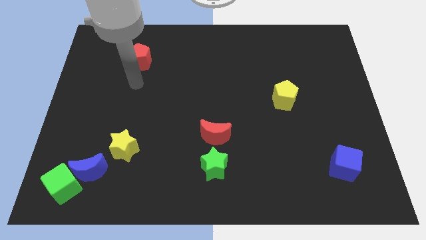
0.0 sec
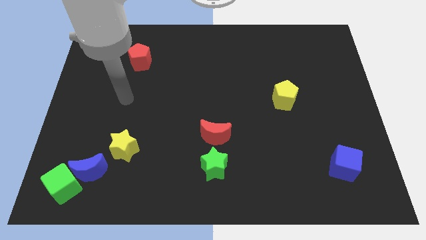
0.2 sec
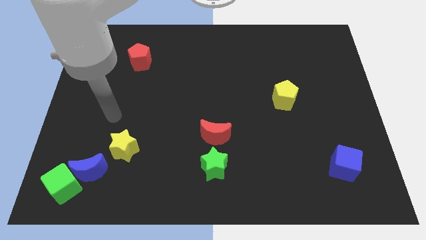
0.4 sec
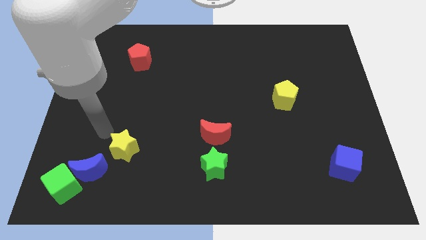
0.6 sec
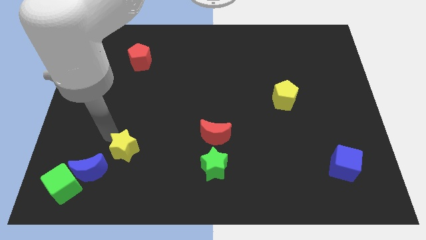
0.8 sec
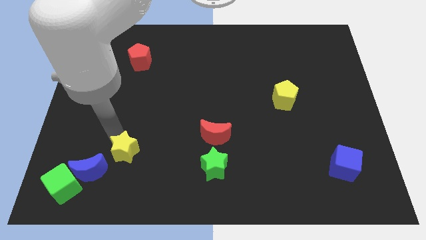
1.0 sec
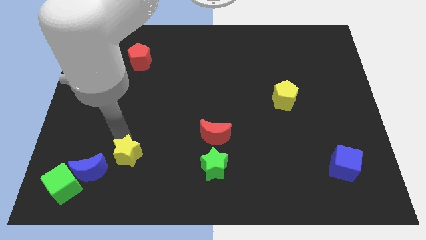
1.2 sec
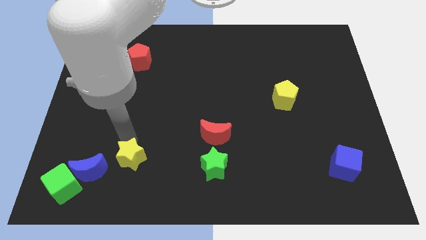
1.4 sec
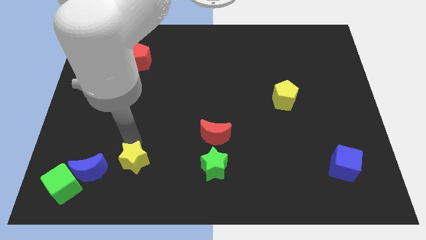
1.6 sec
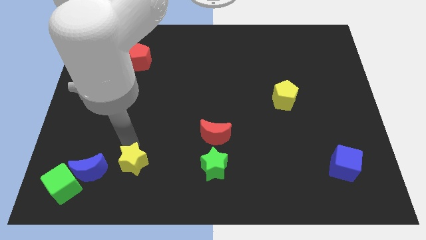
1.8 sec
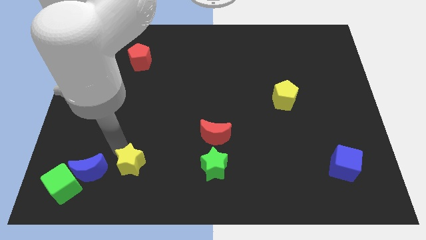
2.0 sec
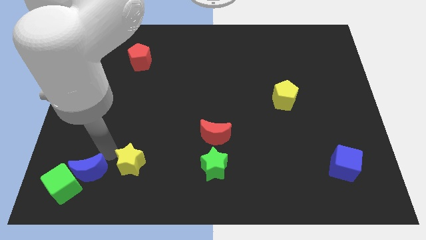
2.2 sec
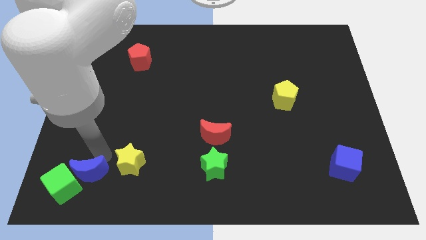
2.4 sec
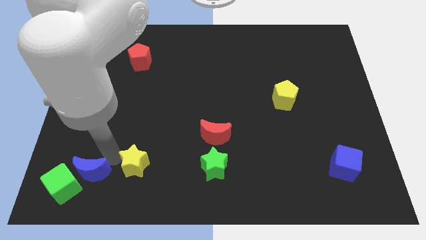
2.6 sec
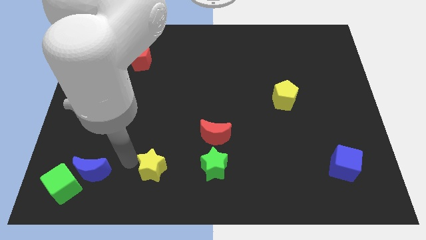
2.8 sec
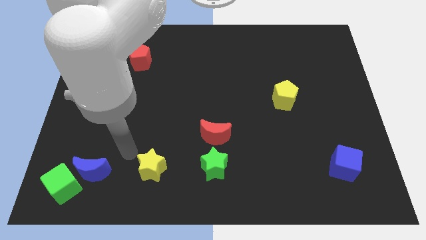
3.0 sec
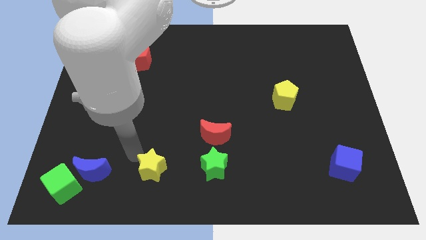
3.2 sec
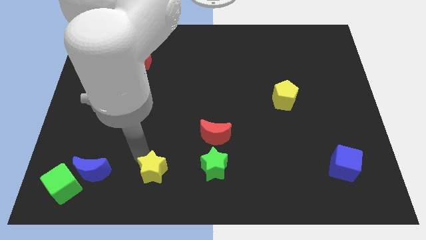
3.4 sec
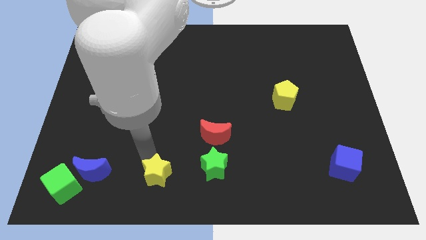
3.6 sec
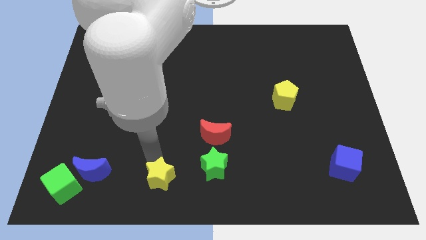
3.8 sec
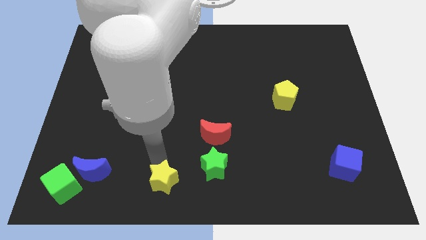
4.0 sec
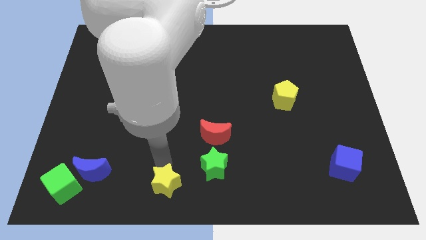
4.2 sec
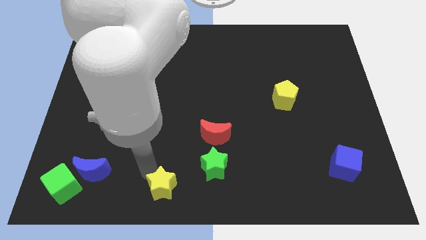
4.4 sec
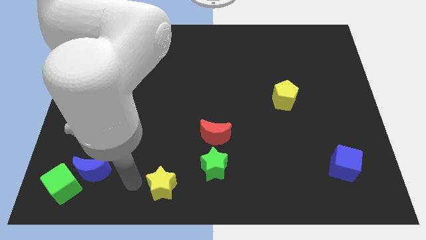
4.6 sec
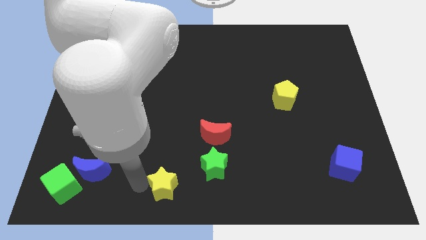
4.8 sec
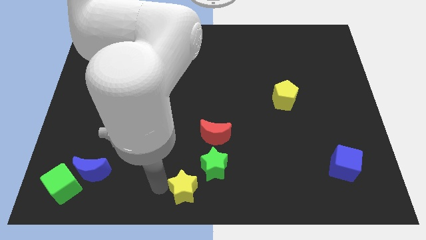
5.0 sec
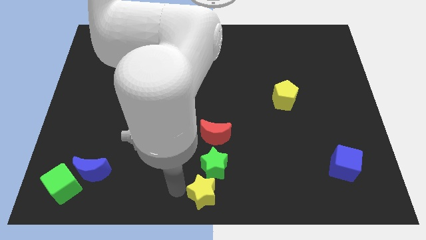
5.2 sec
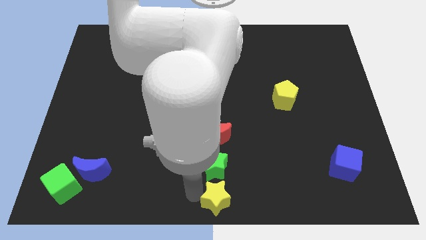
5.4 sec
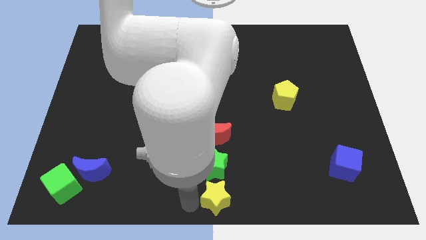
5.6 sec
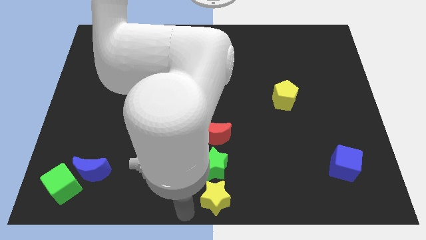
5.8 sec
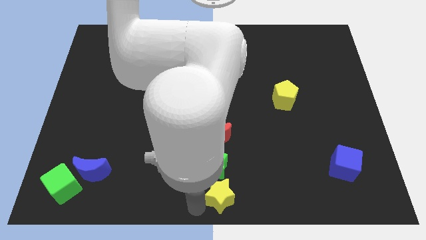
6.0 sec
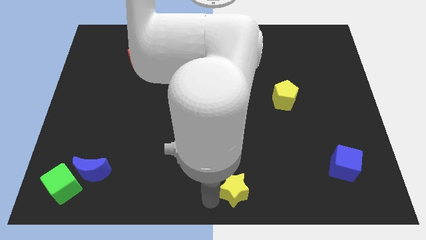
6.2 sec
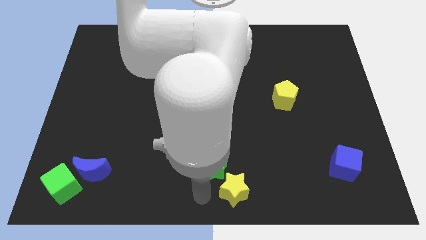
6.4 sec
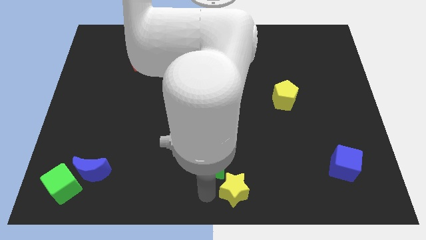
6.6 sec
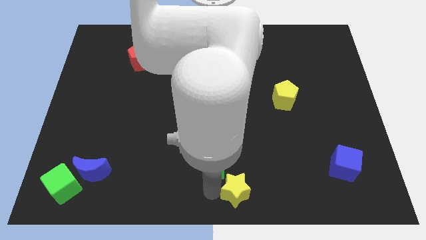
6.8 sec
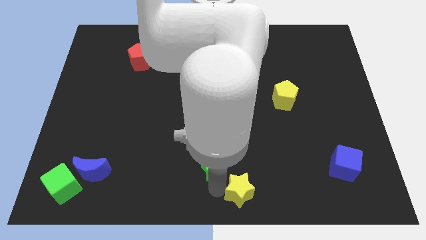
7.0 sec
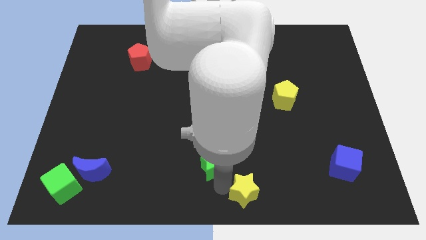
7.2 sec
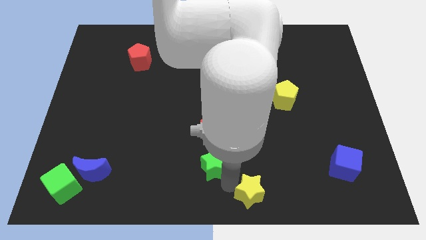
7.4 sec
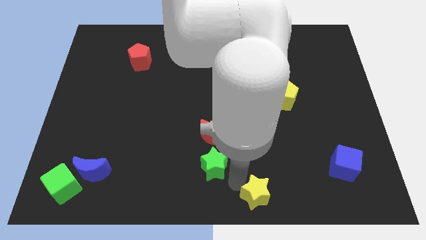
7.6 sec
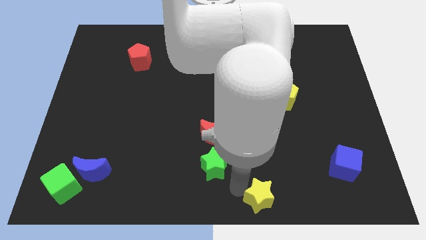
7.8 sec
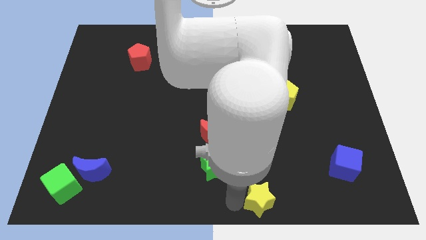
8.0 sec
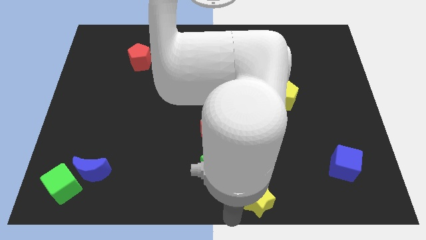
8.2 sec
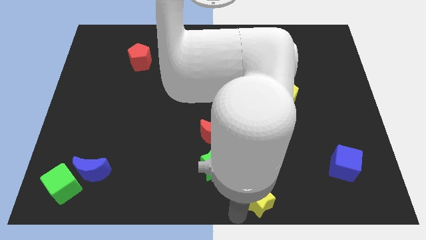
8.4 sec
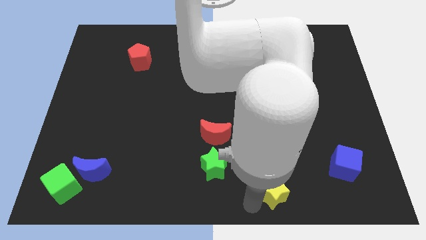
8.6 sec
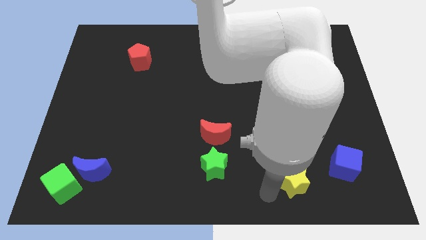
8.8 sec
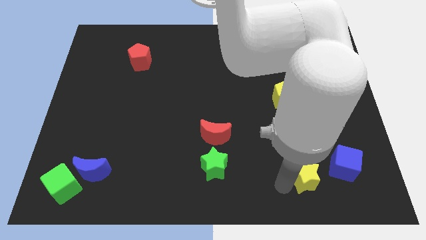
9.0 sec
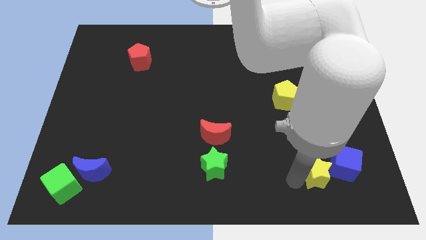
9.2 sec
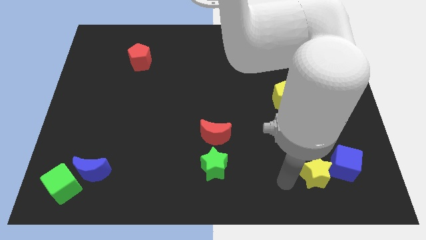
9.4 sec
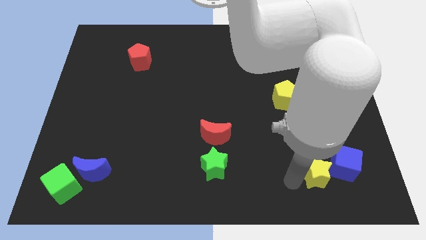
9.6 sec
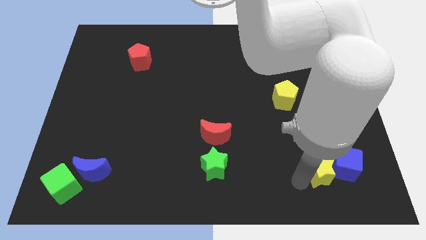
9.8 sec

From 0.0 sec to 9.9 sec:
push the yellow star towards the blue cube

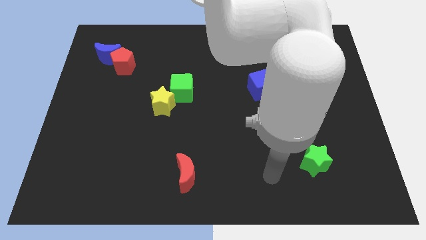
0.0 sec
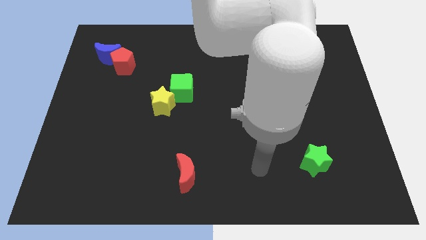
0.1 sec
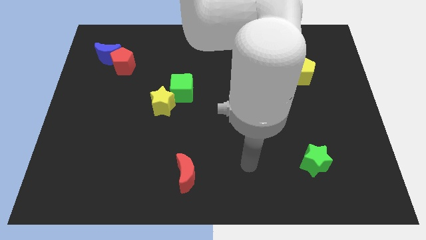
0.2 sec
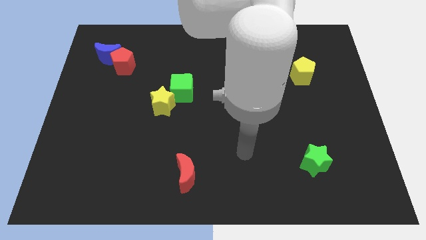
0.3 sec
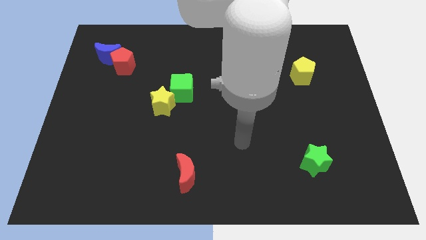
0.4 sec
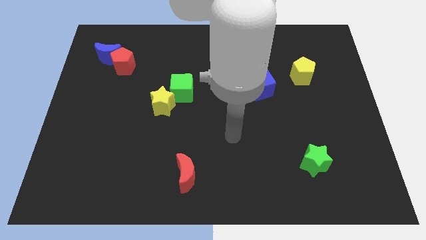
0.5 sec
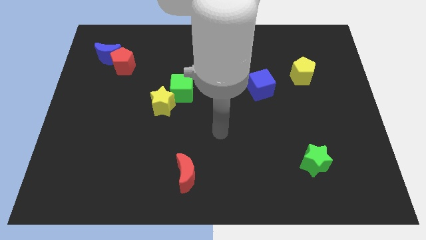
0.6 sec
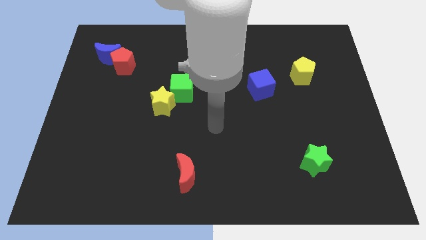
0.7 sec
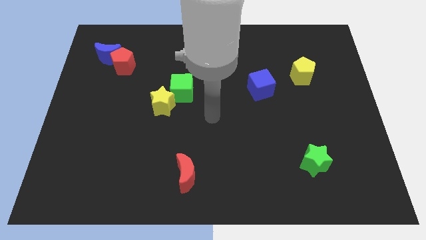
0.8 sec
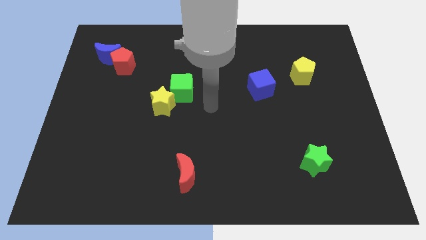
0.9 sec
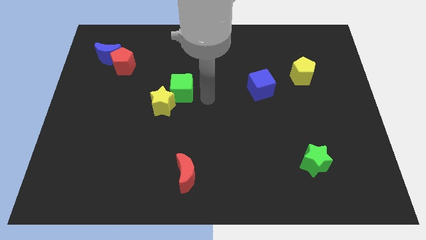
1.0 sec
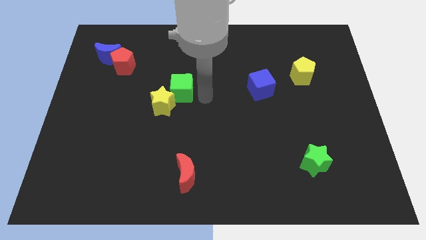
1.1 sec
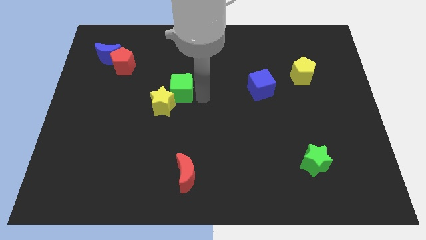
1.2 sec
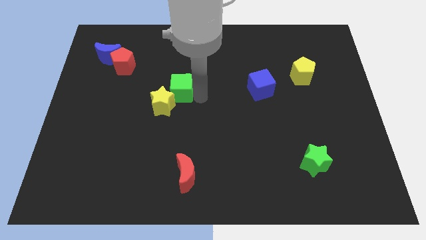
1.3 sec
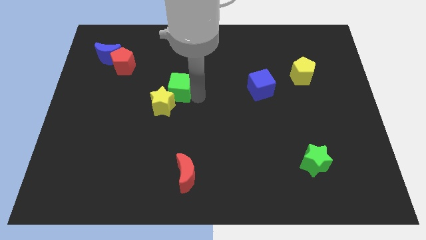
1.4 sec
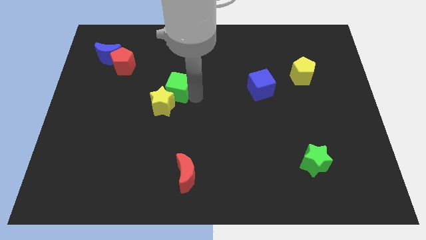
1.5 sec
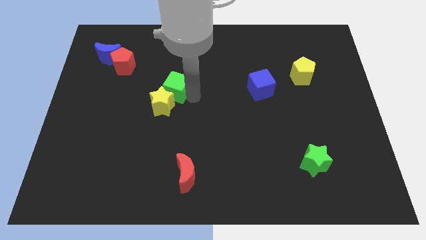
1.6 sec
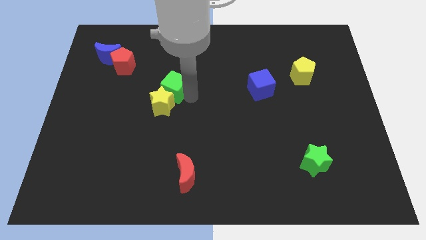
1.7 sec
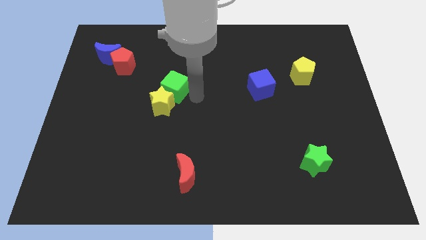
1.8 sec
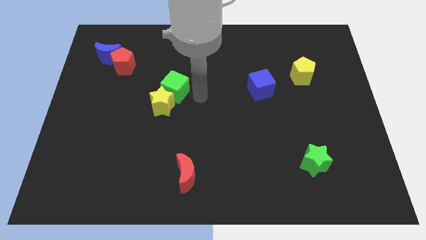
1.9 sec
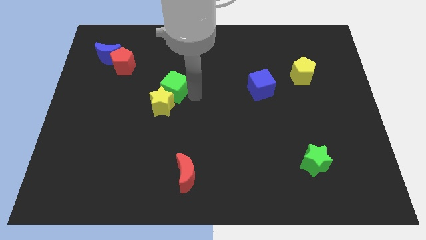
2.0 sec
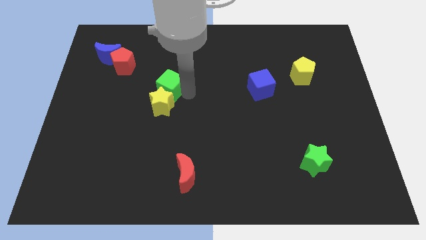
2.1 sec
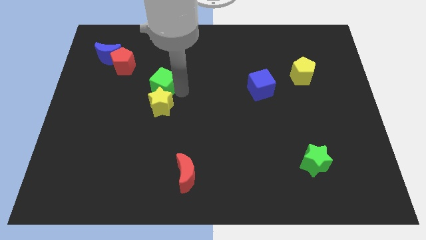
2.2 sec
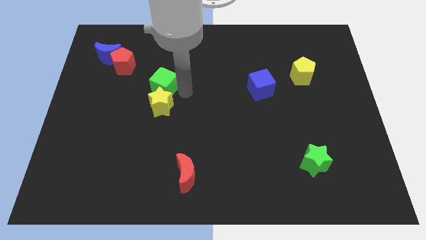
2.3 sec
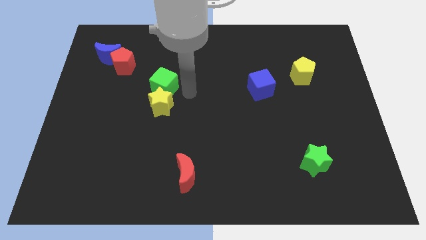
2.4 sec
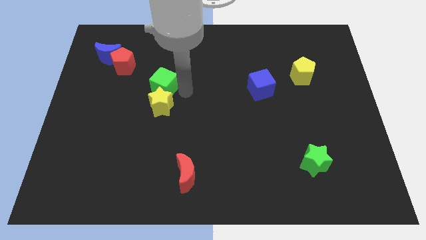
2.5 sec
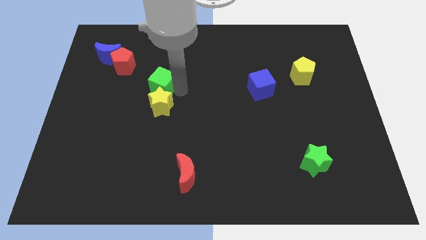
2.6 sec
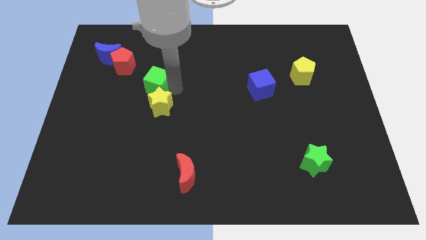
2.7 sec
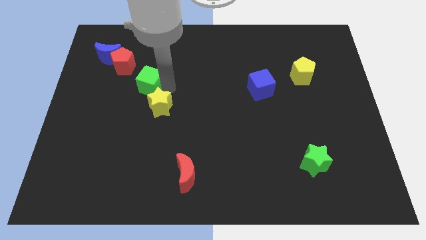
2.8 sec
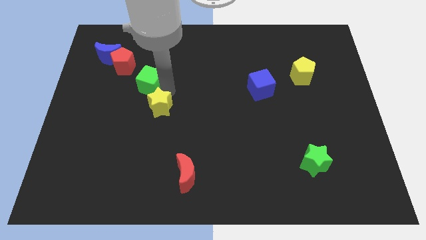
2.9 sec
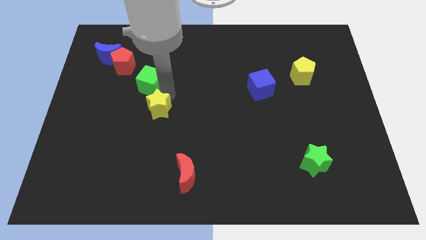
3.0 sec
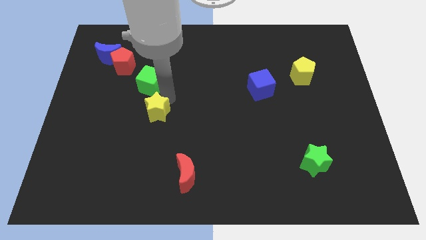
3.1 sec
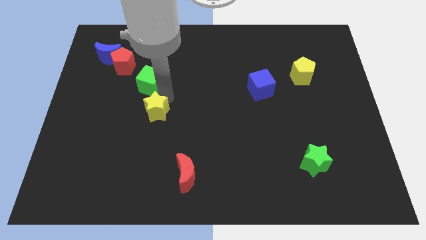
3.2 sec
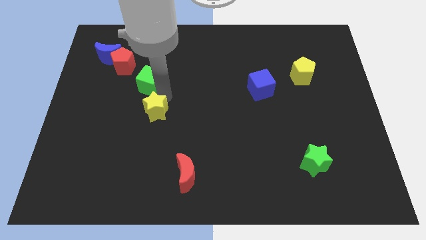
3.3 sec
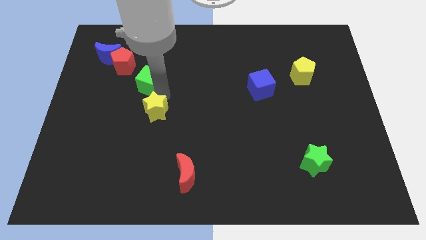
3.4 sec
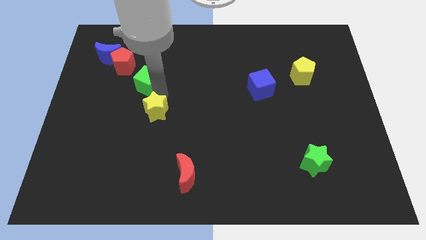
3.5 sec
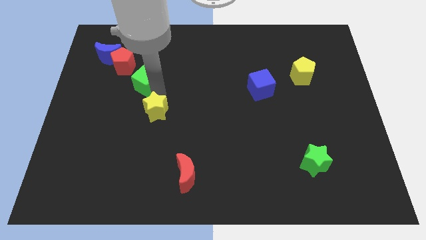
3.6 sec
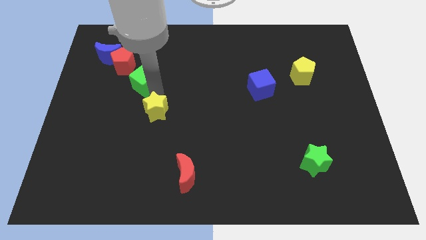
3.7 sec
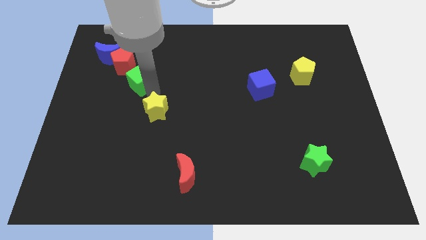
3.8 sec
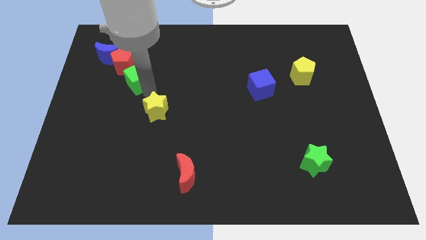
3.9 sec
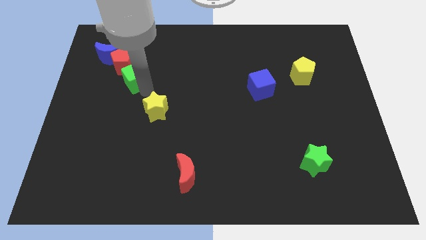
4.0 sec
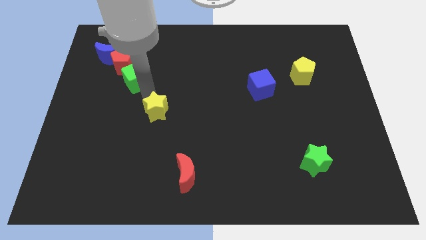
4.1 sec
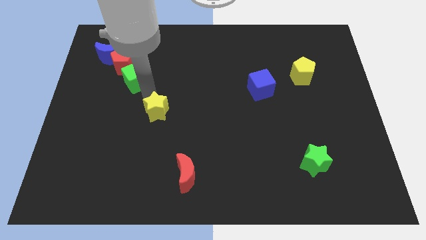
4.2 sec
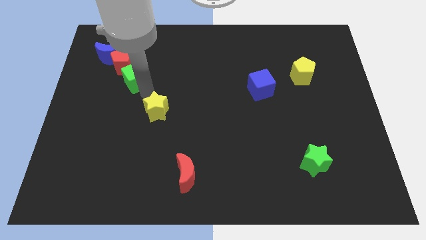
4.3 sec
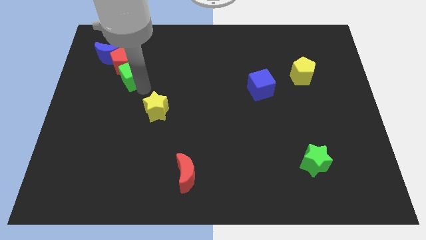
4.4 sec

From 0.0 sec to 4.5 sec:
slide the green cube towards the red pentagon
